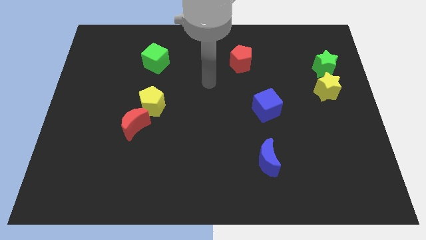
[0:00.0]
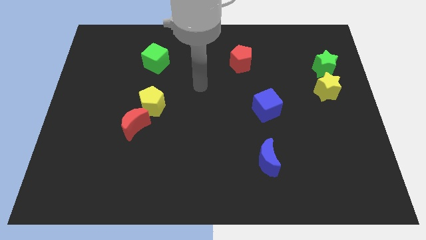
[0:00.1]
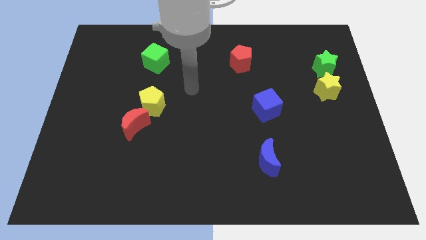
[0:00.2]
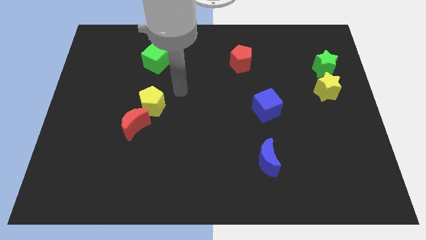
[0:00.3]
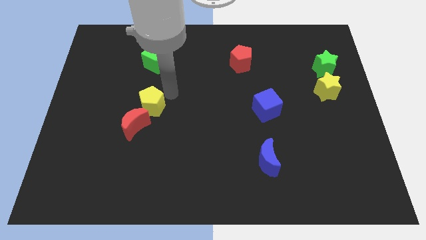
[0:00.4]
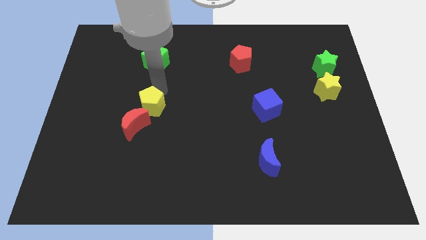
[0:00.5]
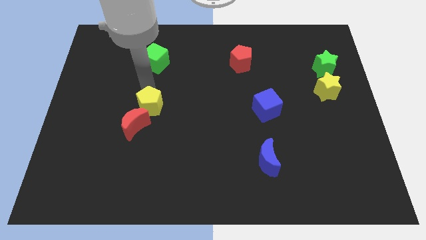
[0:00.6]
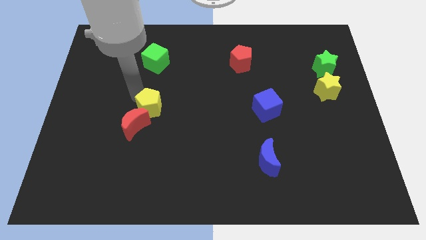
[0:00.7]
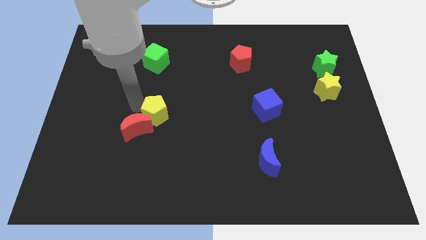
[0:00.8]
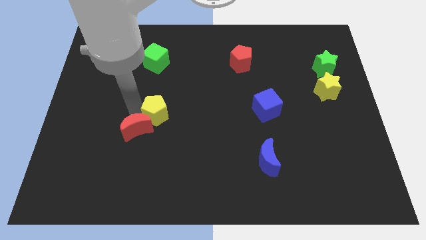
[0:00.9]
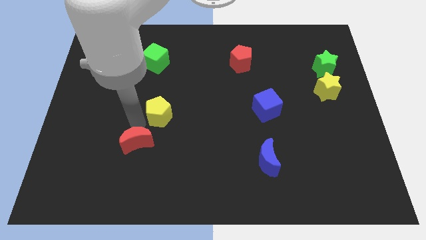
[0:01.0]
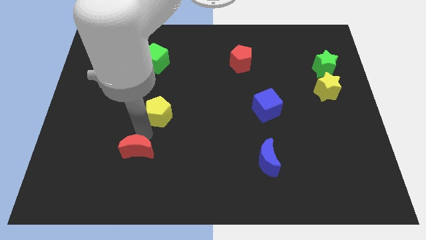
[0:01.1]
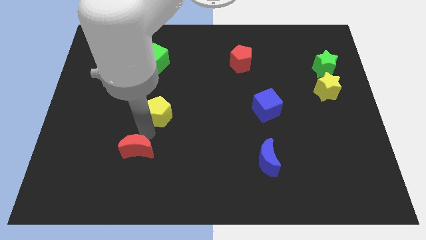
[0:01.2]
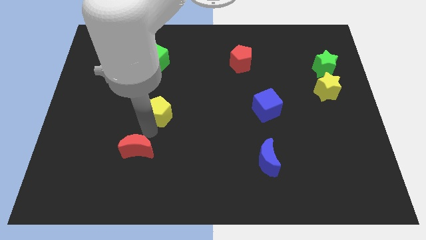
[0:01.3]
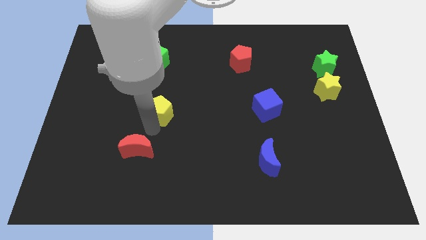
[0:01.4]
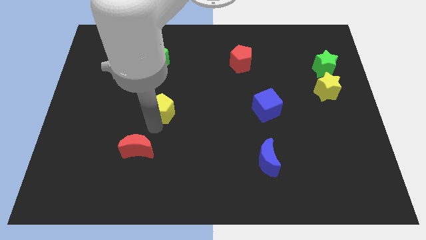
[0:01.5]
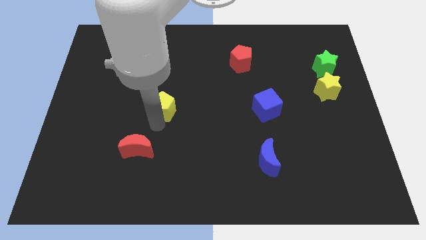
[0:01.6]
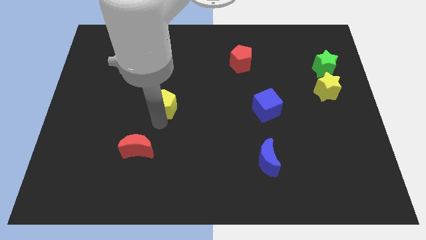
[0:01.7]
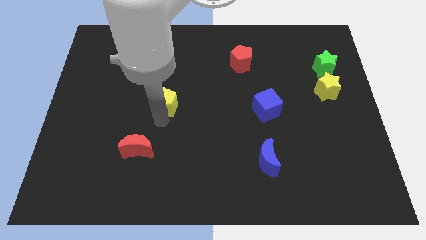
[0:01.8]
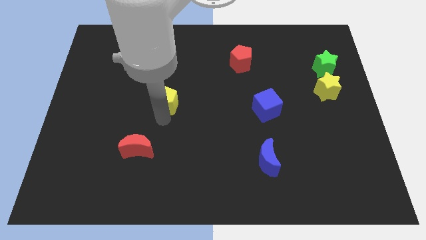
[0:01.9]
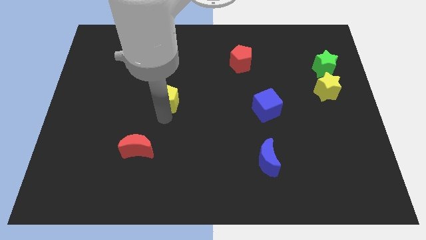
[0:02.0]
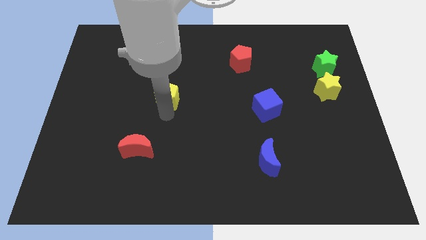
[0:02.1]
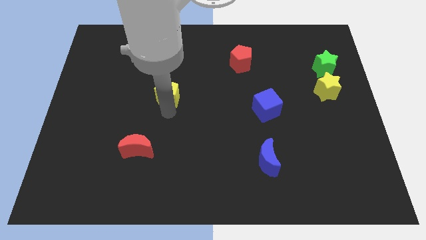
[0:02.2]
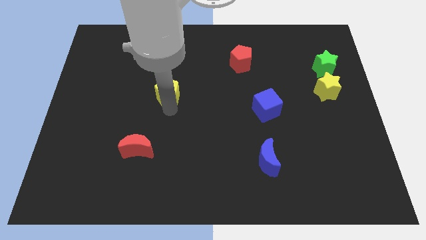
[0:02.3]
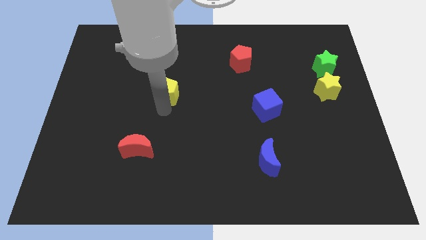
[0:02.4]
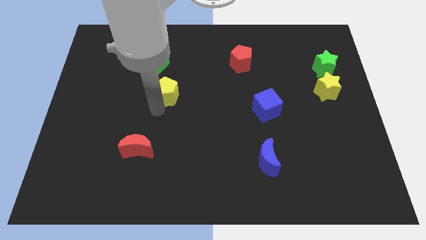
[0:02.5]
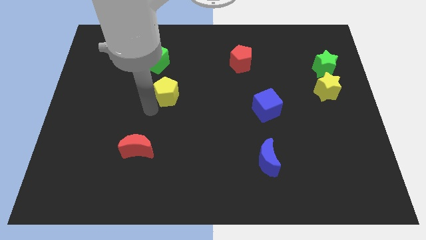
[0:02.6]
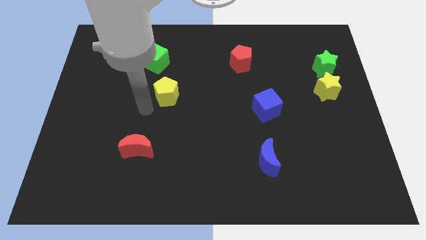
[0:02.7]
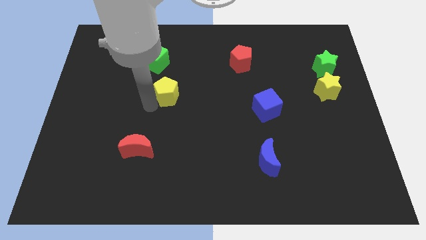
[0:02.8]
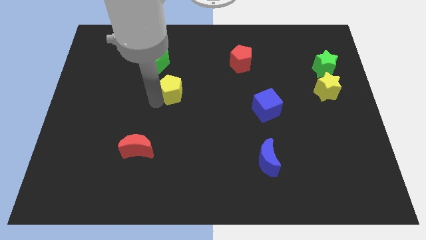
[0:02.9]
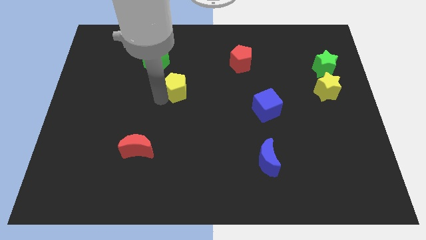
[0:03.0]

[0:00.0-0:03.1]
slide the yellow pentagon upwards and to the right a bit

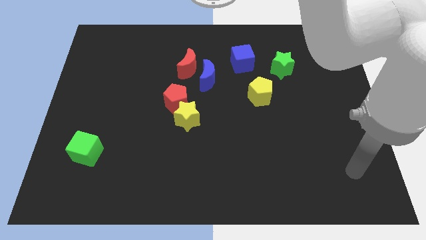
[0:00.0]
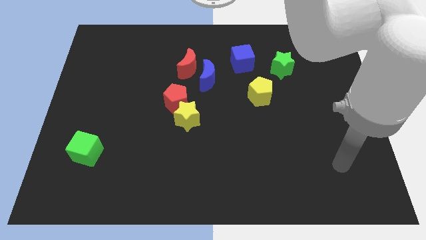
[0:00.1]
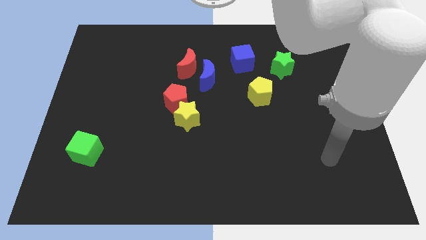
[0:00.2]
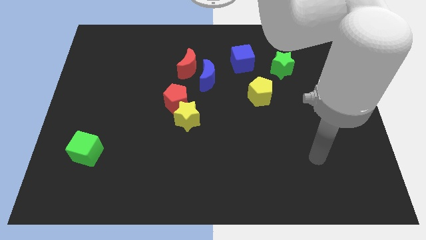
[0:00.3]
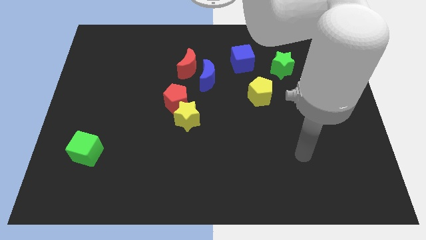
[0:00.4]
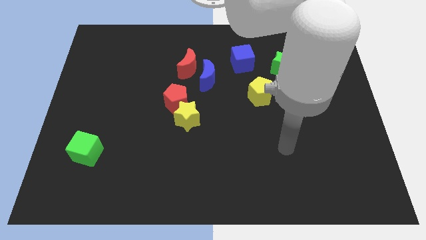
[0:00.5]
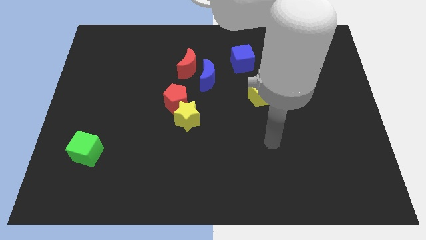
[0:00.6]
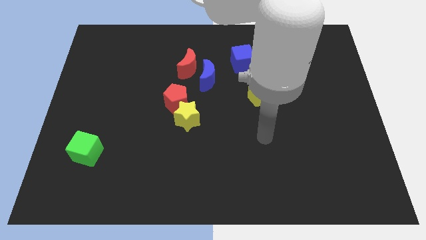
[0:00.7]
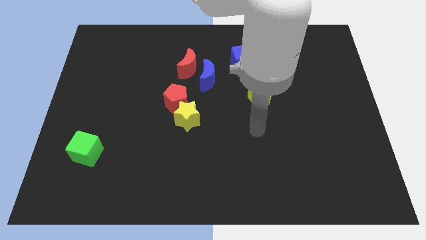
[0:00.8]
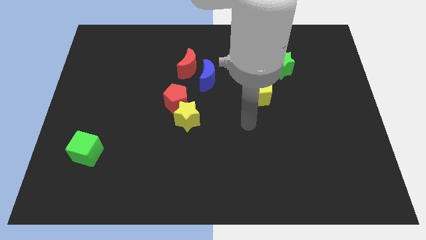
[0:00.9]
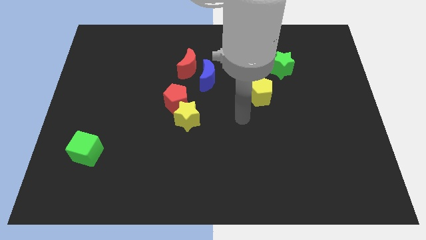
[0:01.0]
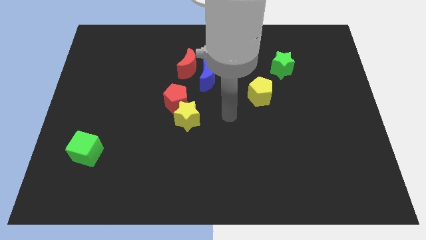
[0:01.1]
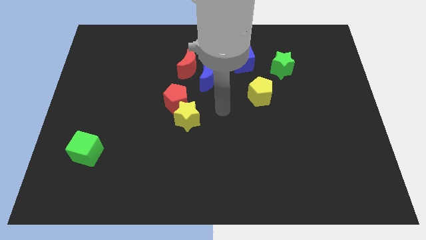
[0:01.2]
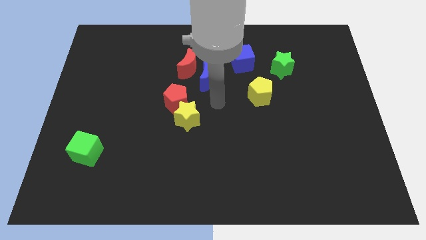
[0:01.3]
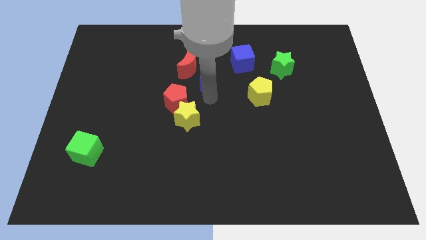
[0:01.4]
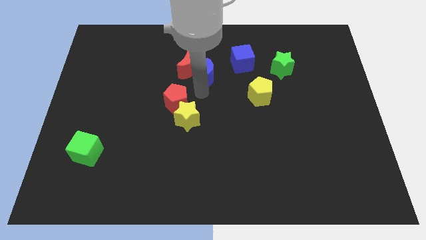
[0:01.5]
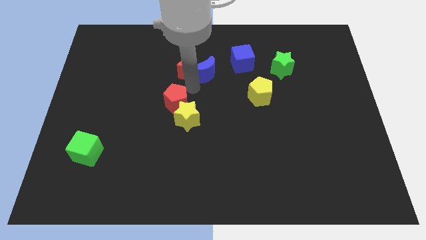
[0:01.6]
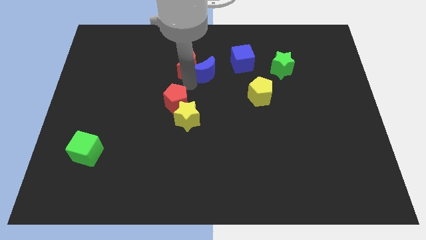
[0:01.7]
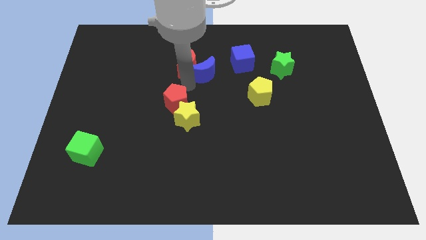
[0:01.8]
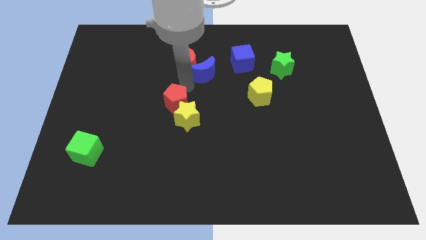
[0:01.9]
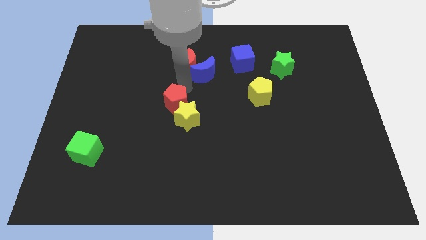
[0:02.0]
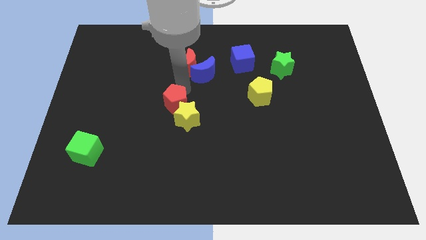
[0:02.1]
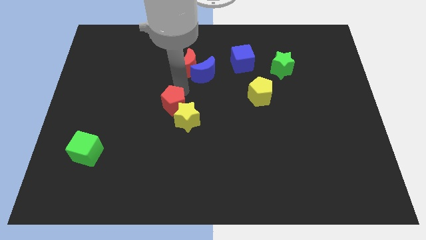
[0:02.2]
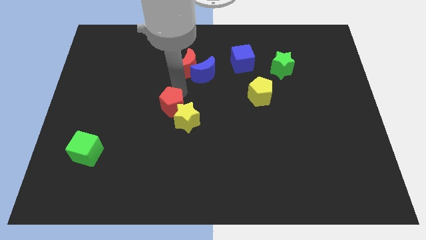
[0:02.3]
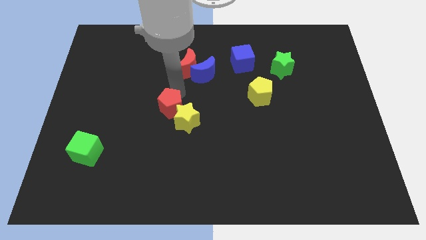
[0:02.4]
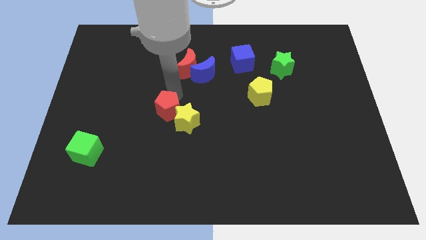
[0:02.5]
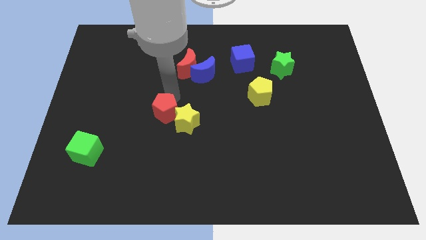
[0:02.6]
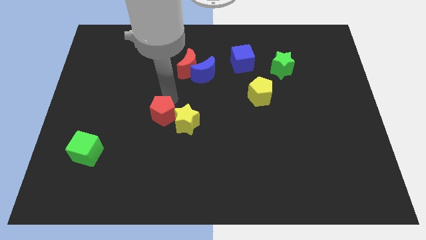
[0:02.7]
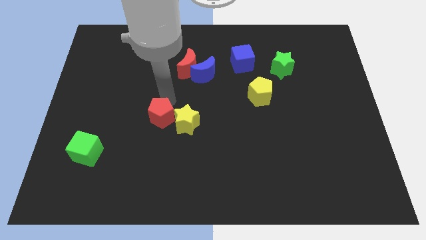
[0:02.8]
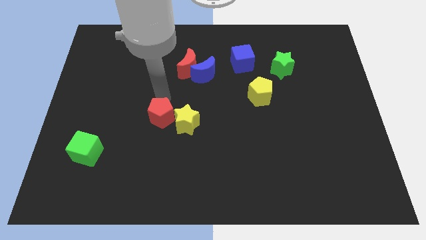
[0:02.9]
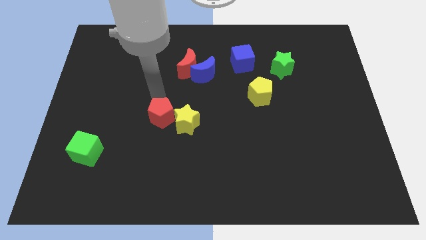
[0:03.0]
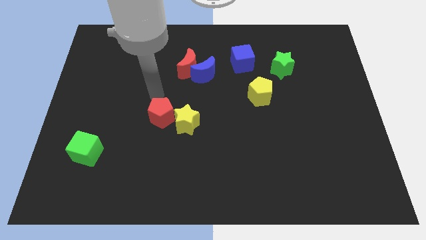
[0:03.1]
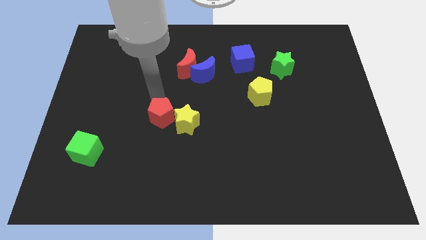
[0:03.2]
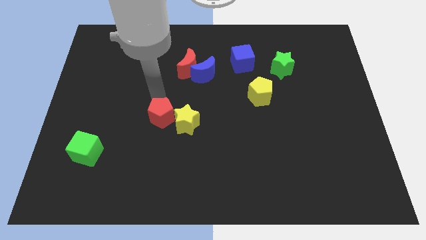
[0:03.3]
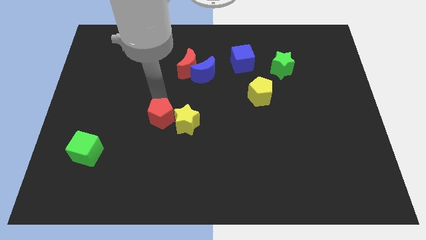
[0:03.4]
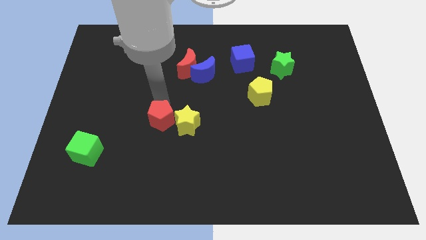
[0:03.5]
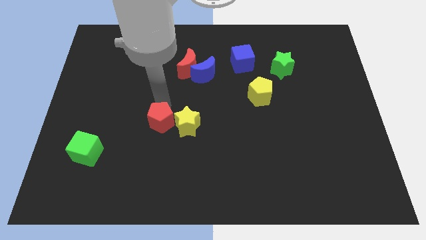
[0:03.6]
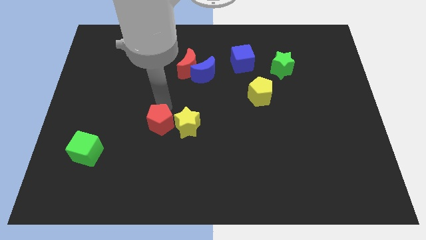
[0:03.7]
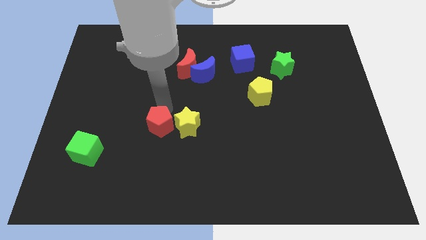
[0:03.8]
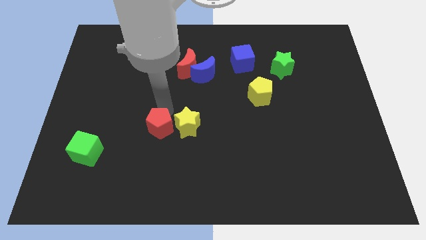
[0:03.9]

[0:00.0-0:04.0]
push the red pentagon downwards a little

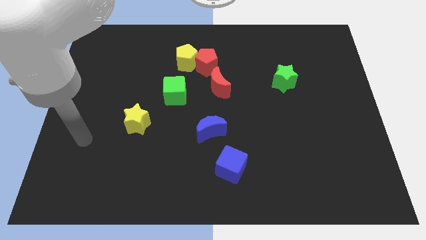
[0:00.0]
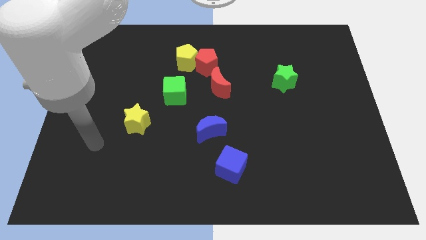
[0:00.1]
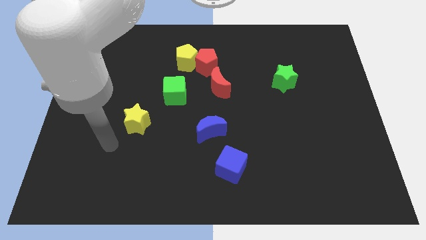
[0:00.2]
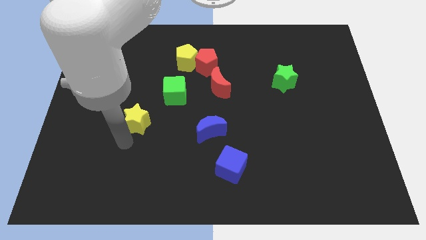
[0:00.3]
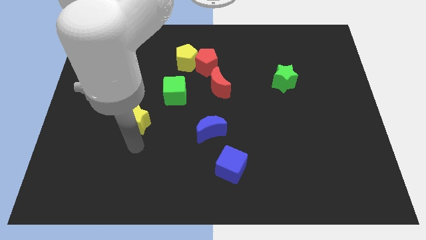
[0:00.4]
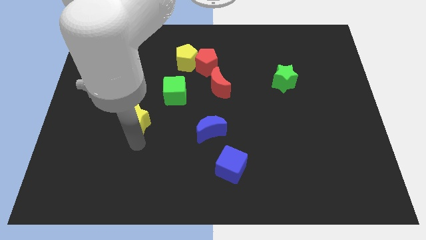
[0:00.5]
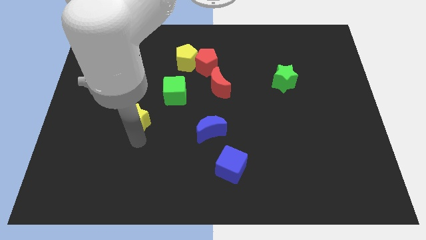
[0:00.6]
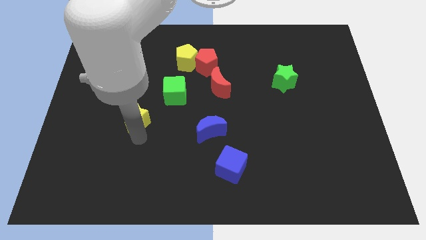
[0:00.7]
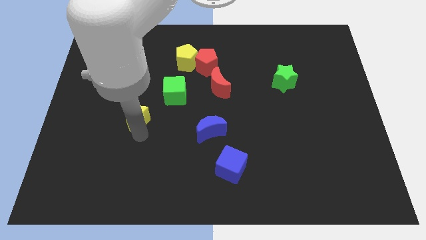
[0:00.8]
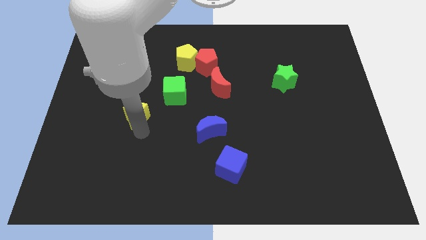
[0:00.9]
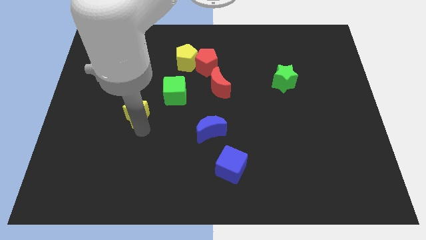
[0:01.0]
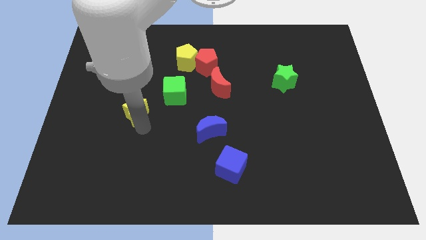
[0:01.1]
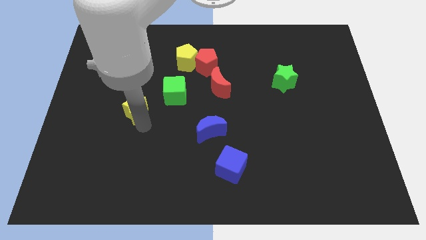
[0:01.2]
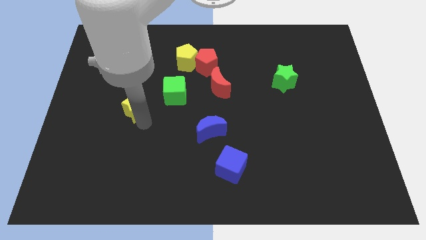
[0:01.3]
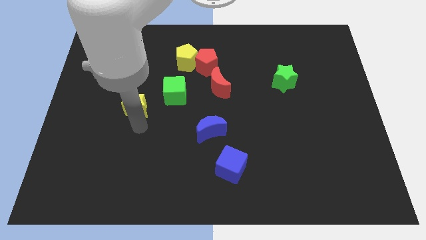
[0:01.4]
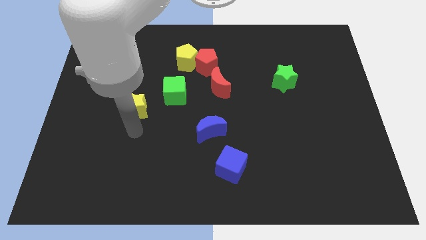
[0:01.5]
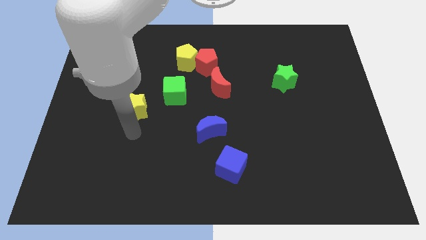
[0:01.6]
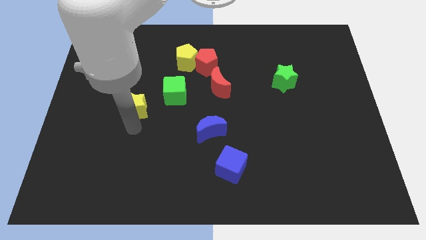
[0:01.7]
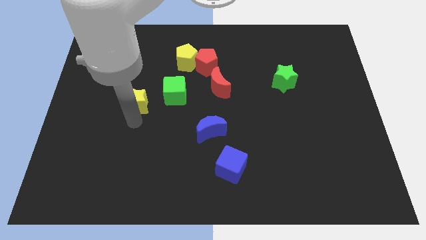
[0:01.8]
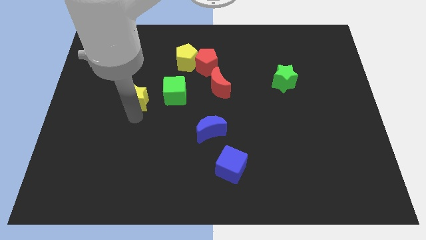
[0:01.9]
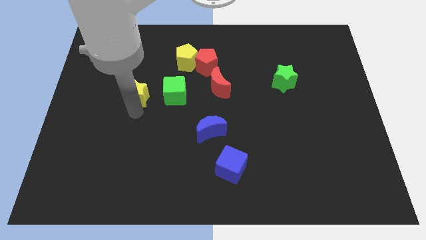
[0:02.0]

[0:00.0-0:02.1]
slide the yellow star a little up
